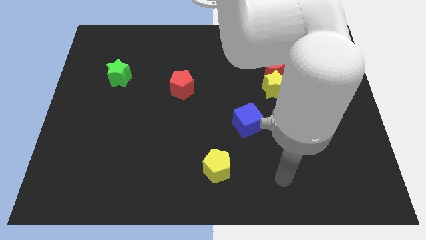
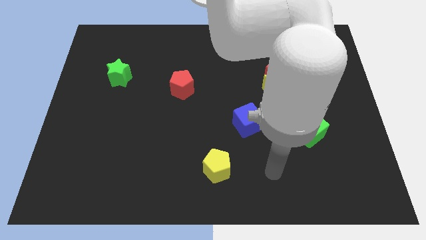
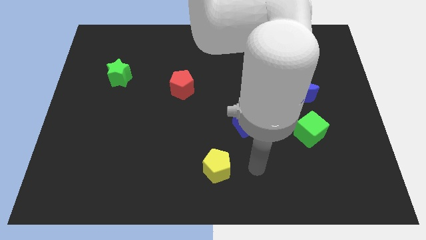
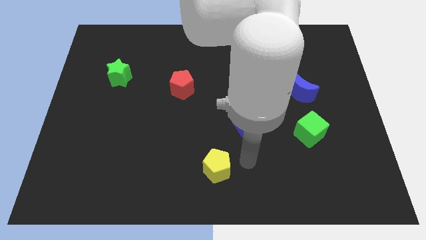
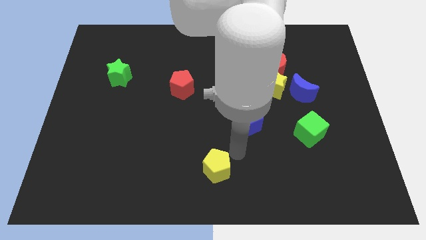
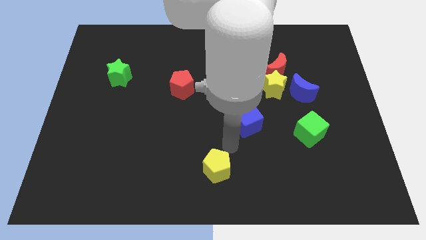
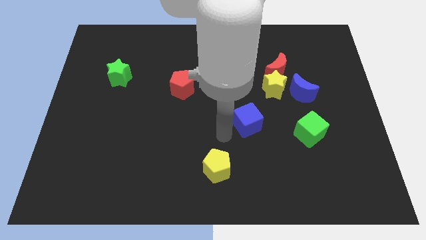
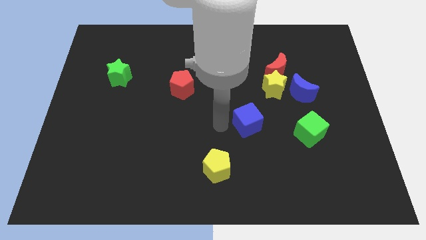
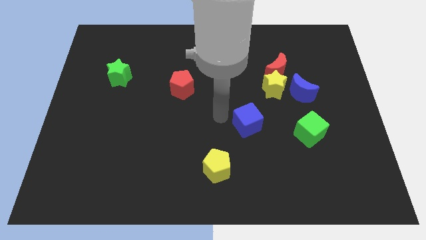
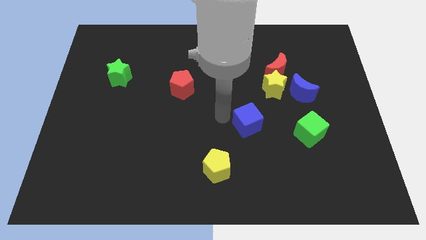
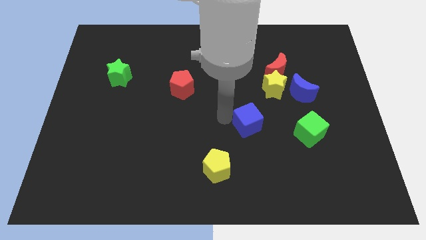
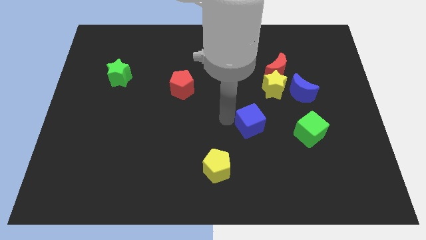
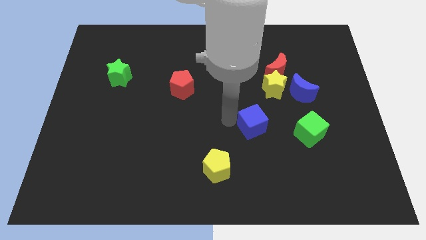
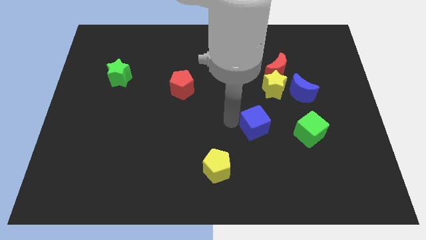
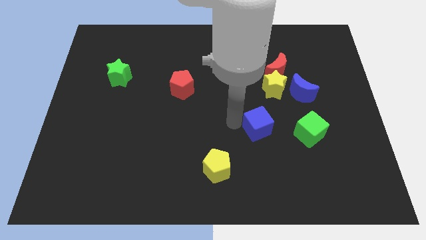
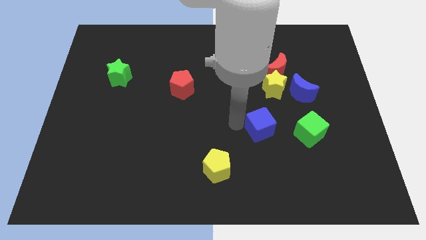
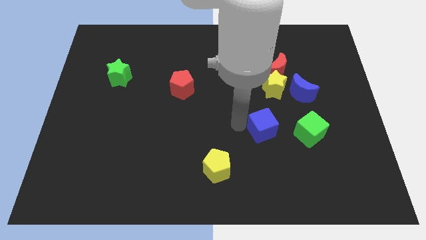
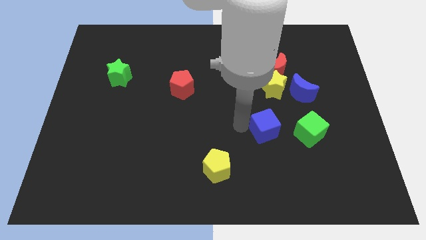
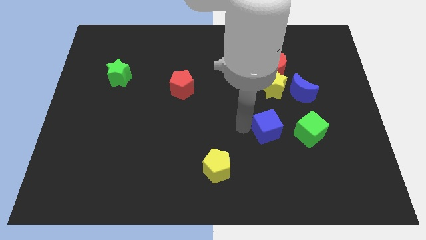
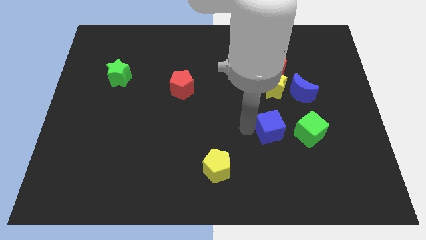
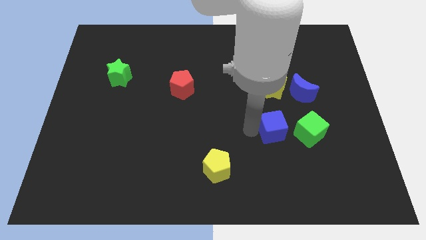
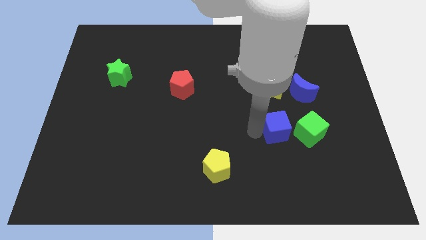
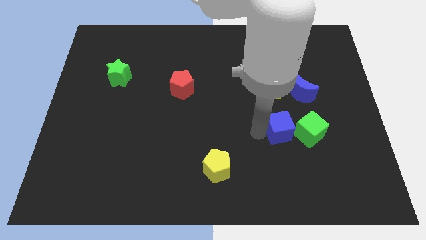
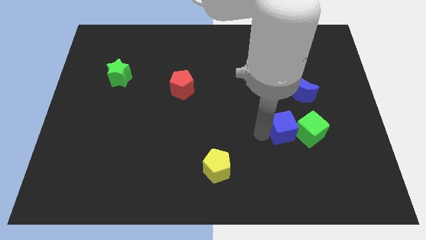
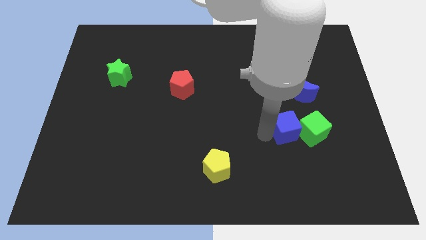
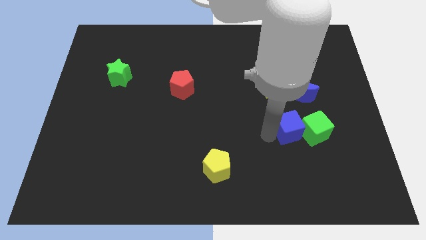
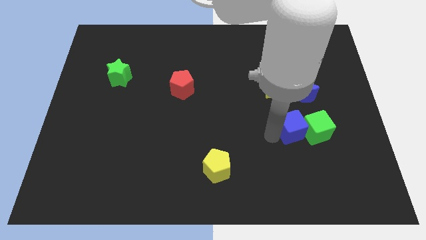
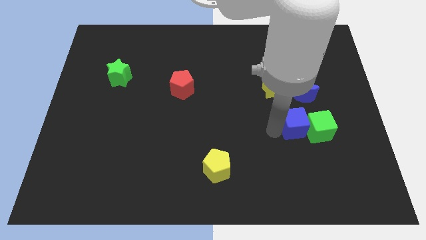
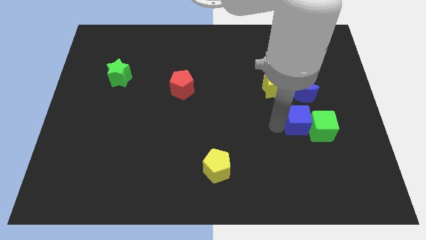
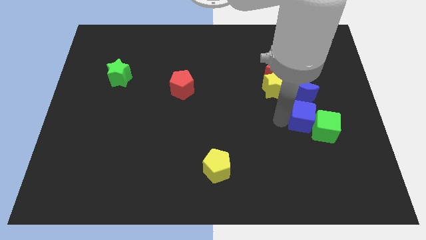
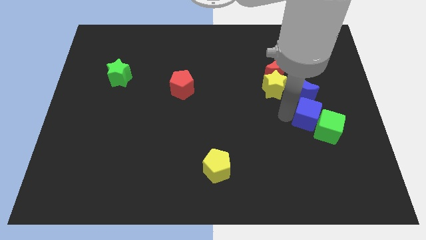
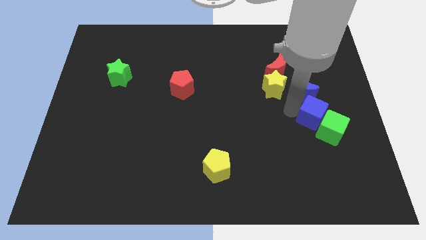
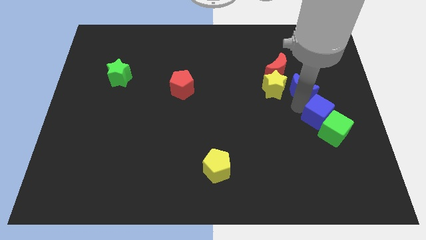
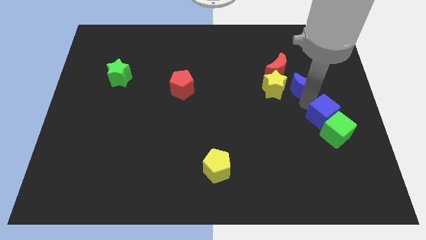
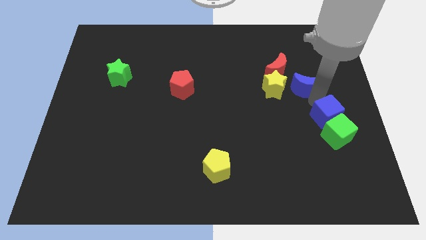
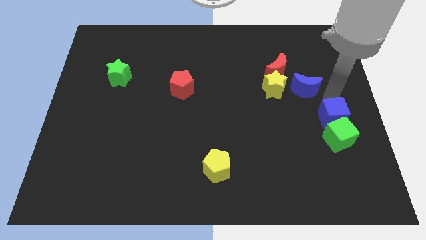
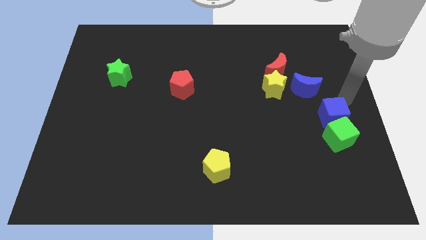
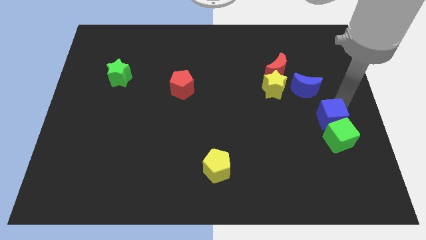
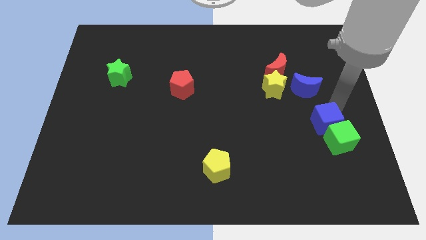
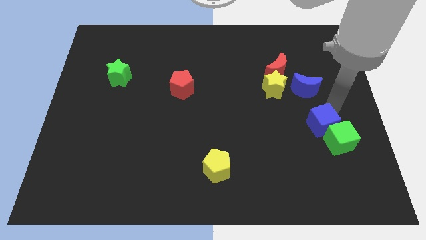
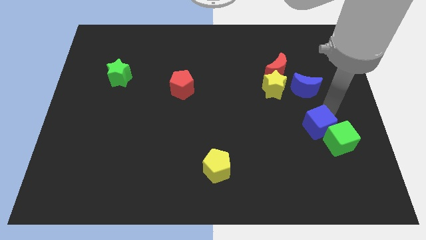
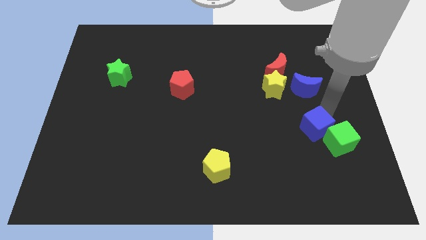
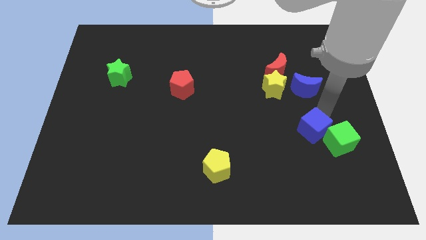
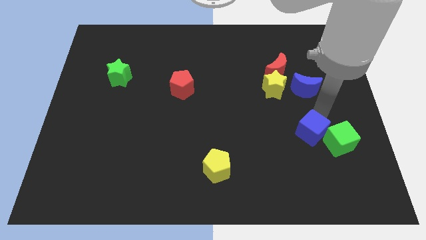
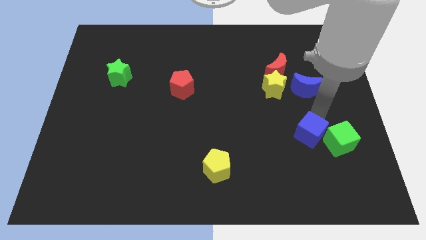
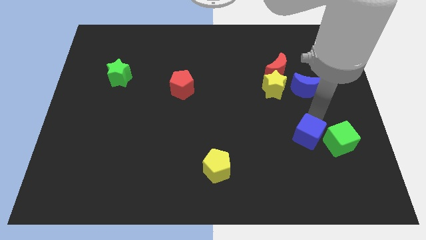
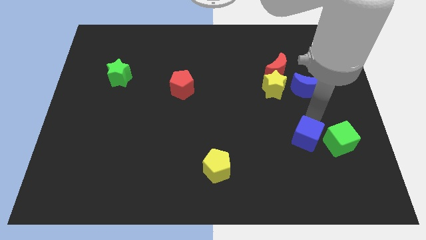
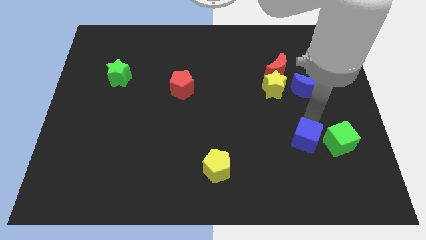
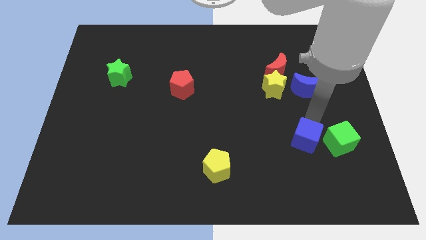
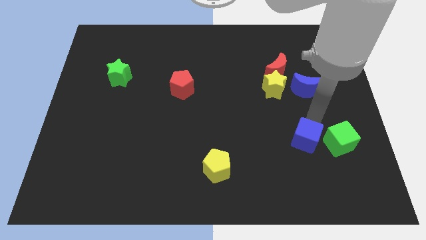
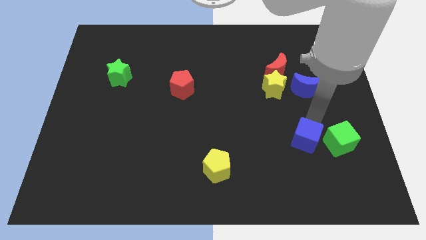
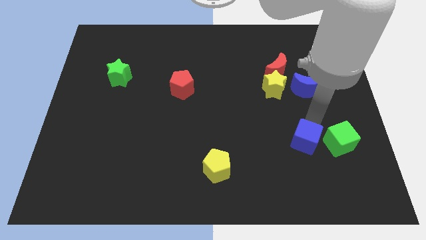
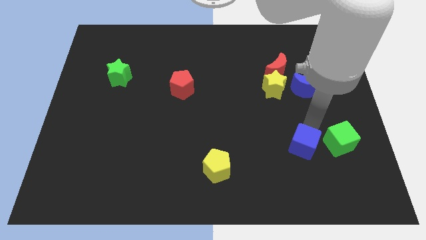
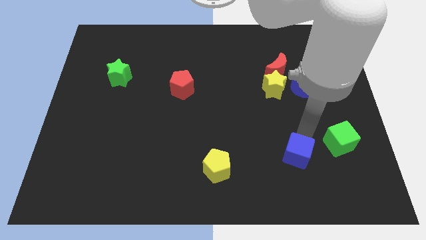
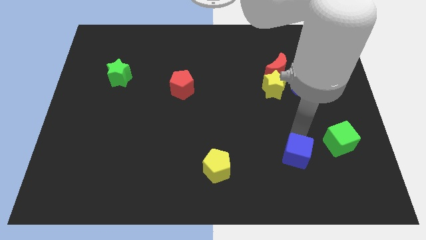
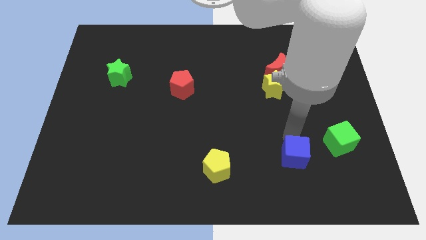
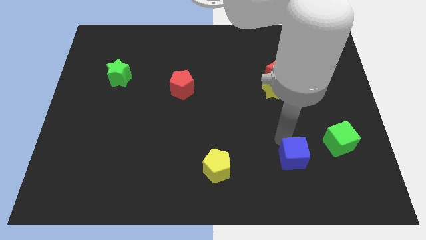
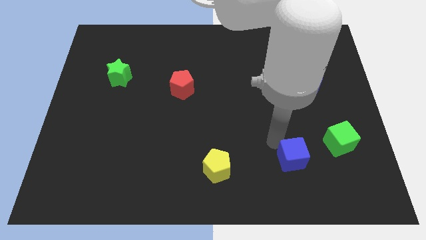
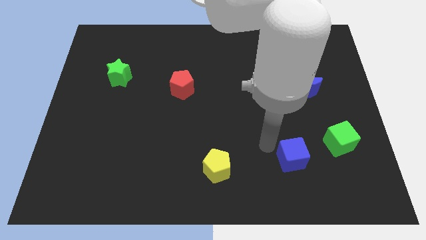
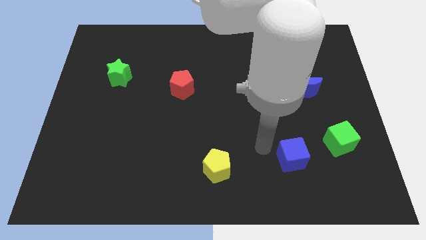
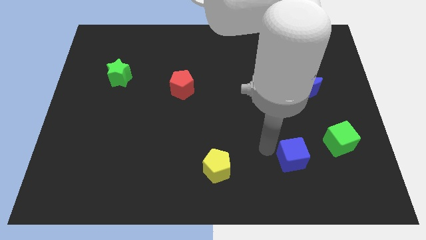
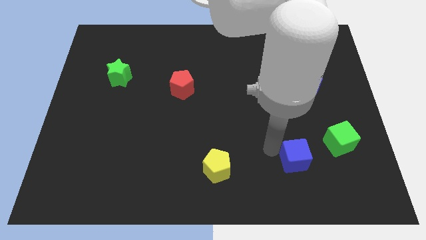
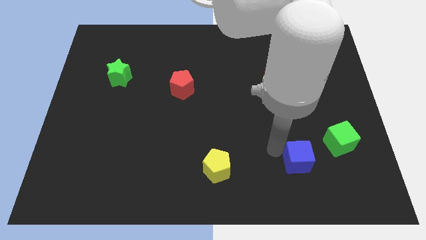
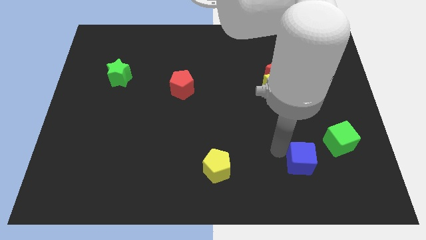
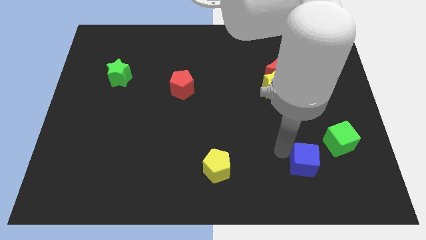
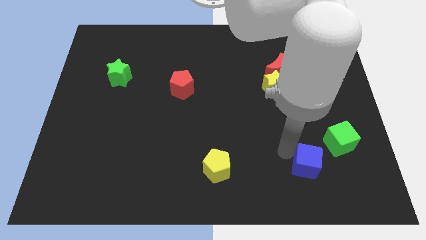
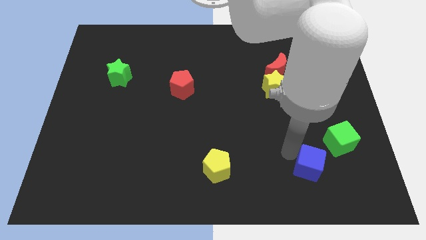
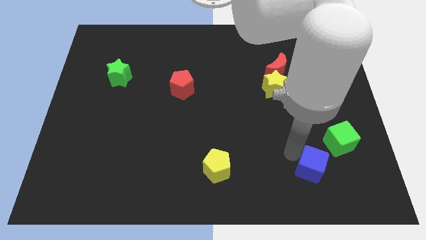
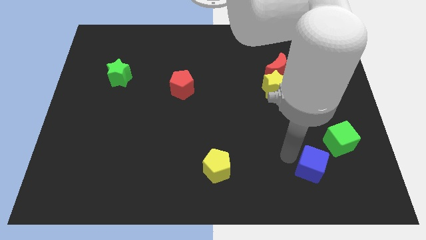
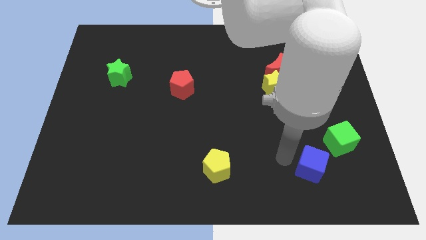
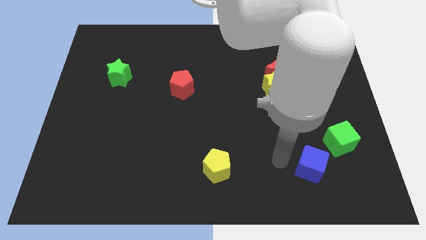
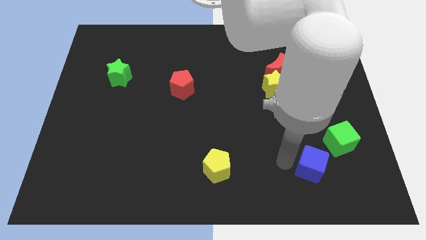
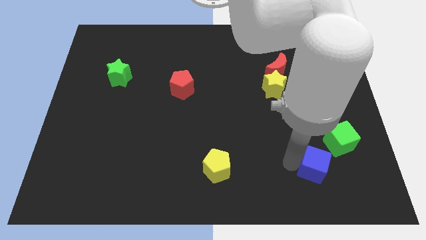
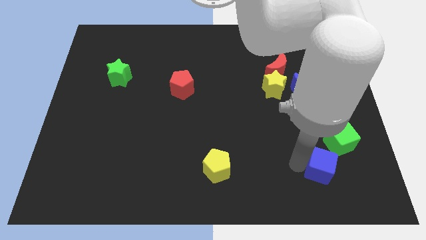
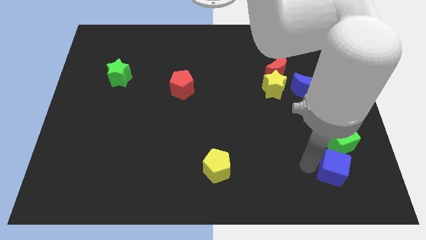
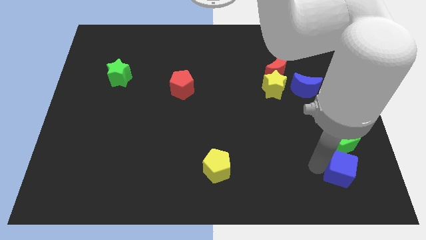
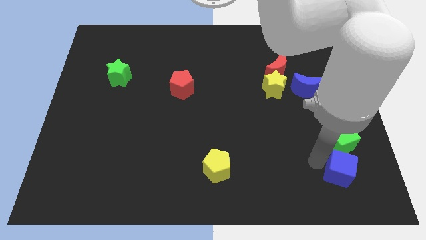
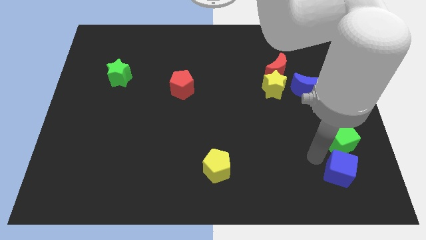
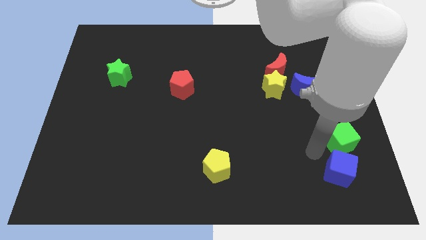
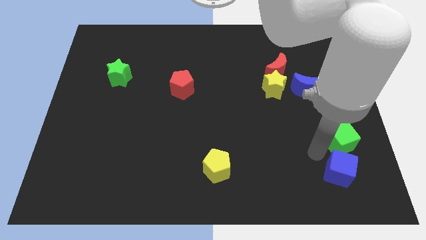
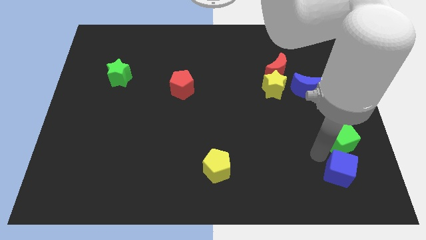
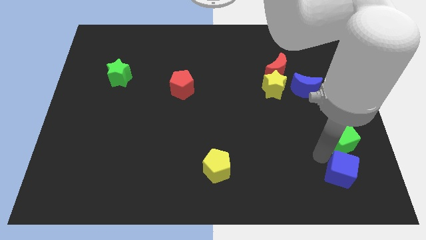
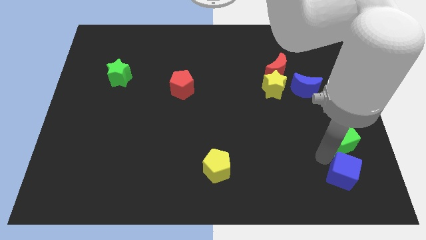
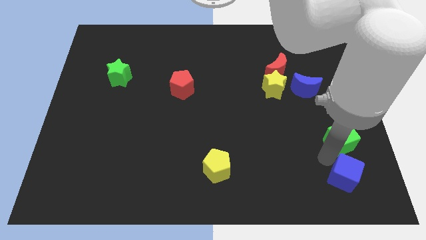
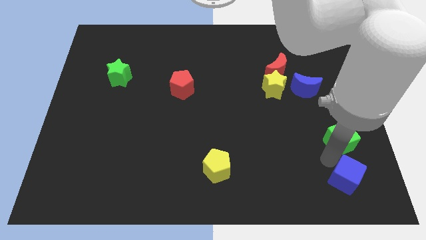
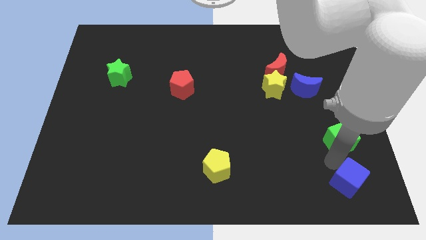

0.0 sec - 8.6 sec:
move the blue cube to the bottom right
